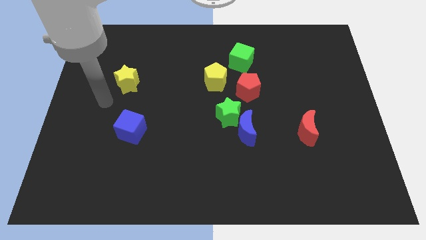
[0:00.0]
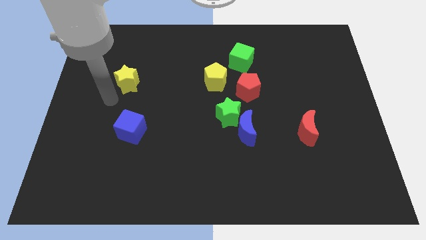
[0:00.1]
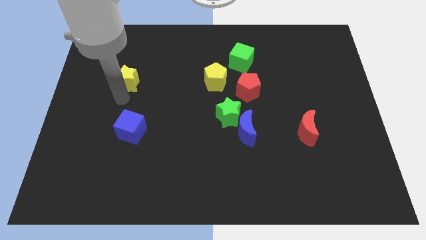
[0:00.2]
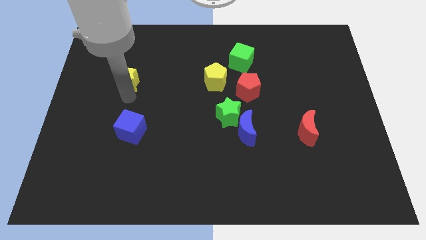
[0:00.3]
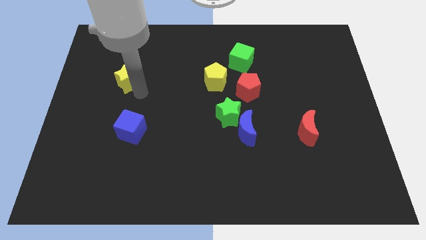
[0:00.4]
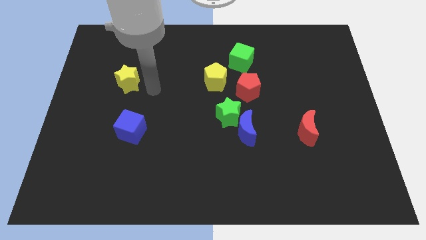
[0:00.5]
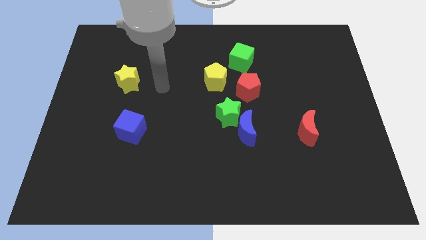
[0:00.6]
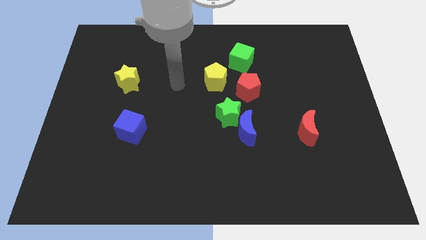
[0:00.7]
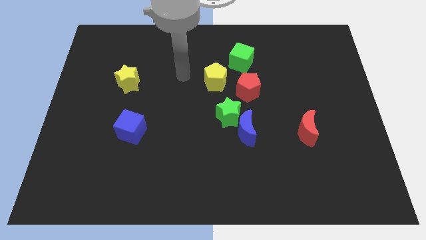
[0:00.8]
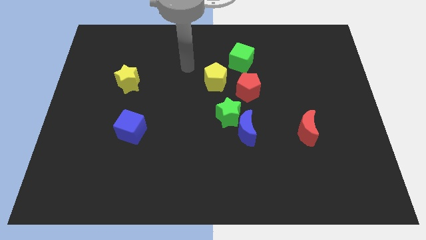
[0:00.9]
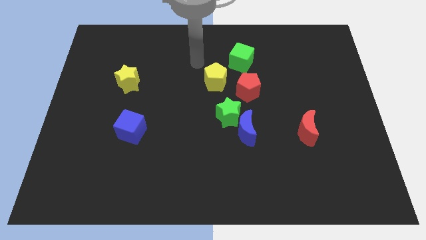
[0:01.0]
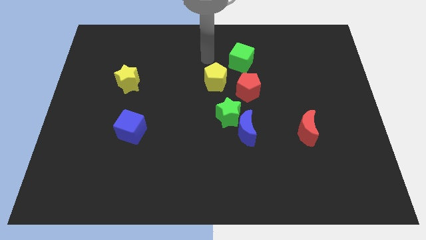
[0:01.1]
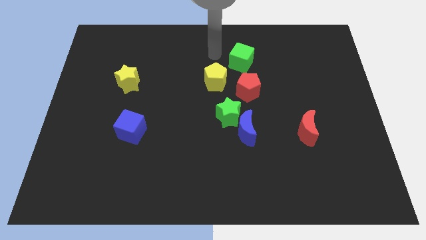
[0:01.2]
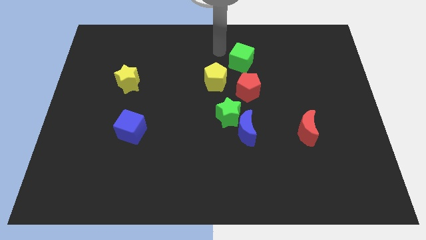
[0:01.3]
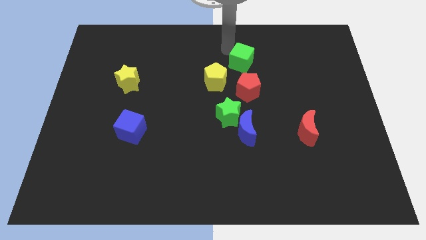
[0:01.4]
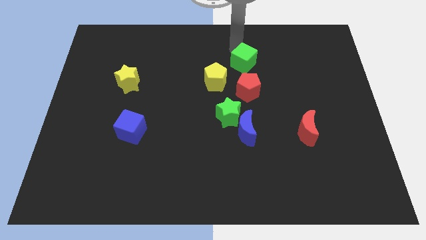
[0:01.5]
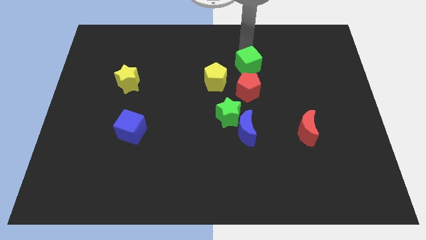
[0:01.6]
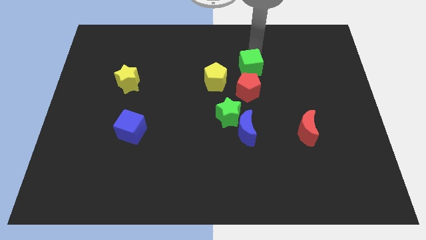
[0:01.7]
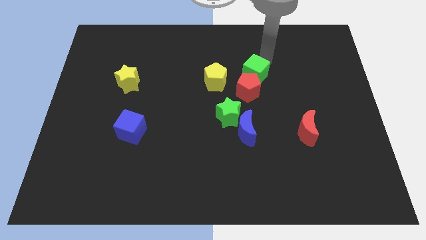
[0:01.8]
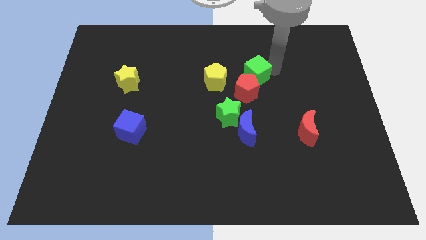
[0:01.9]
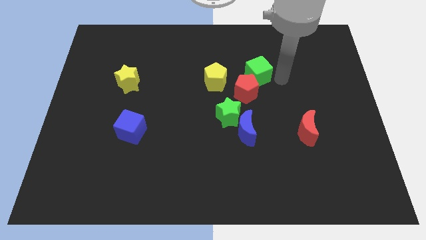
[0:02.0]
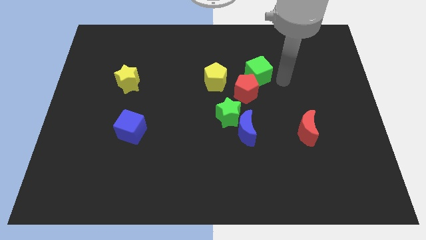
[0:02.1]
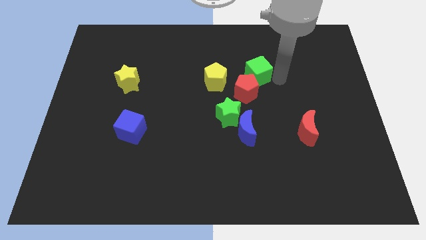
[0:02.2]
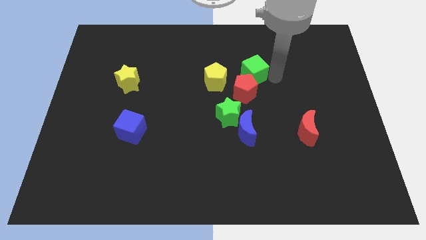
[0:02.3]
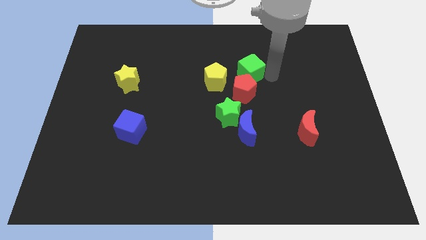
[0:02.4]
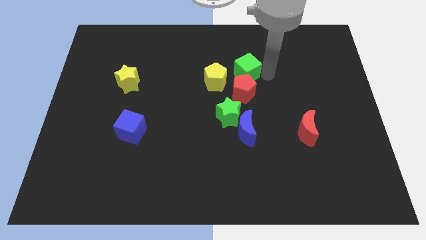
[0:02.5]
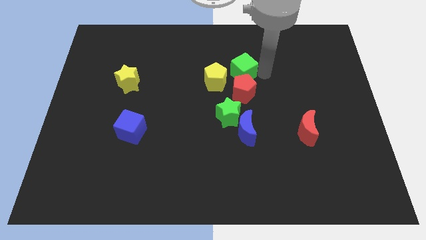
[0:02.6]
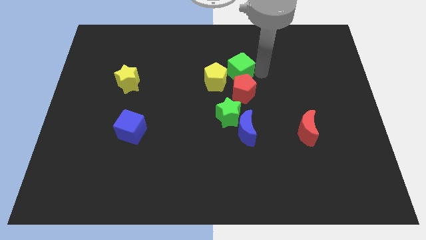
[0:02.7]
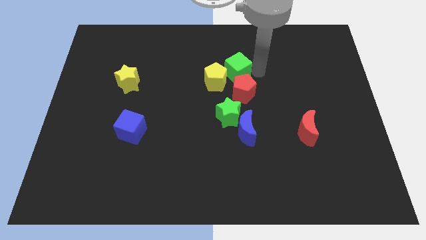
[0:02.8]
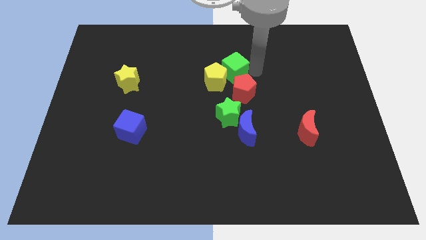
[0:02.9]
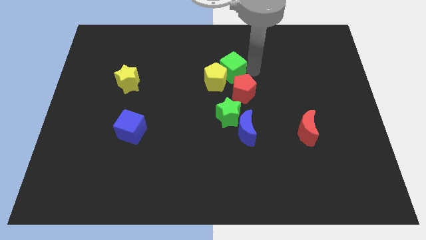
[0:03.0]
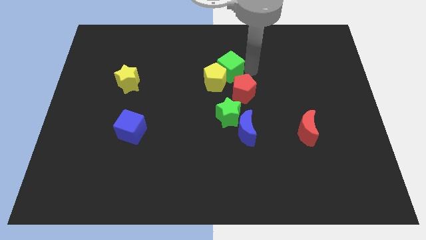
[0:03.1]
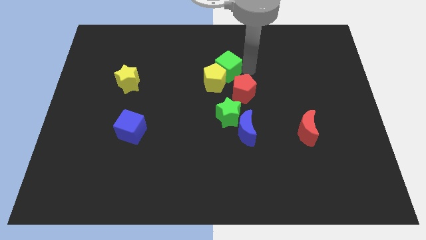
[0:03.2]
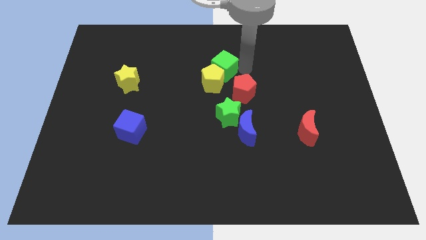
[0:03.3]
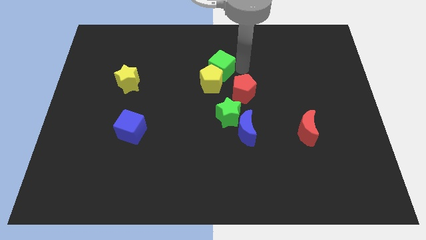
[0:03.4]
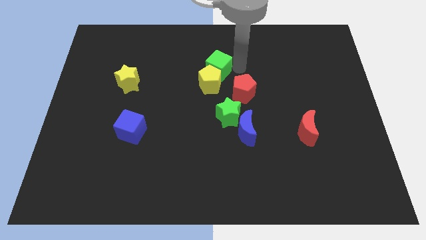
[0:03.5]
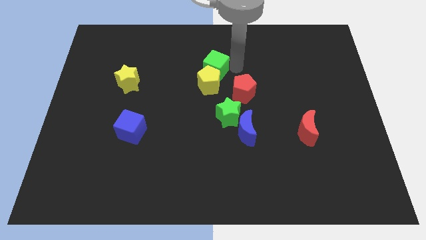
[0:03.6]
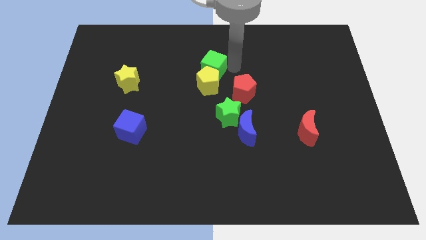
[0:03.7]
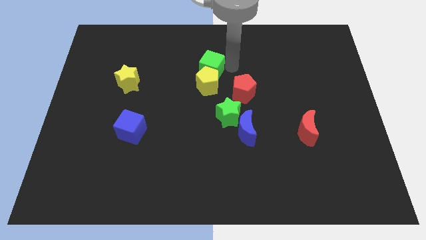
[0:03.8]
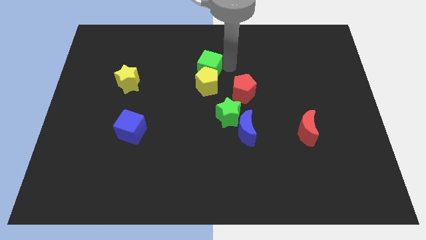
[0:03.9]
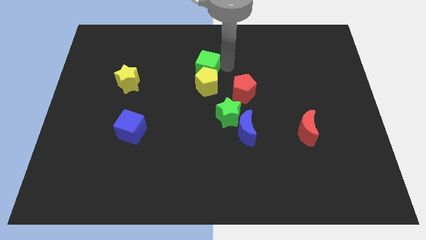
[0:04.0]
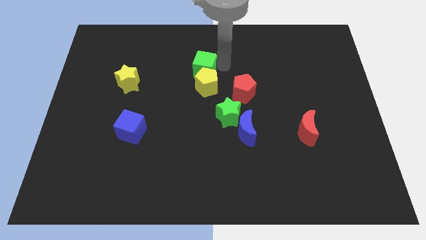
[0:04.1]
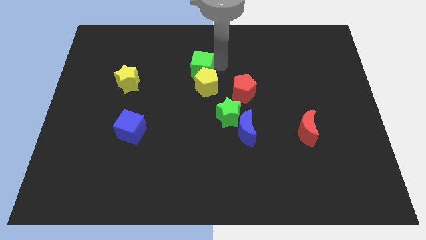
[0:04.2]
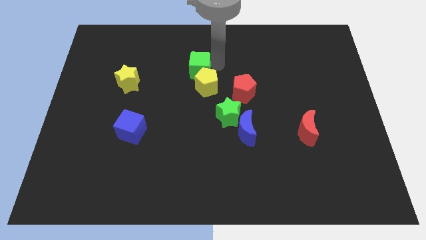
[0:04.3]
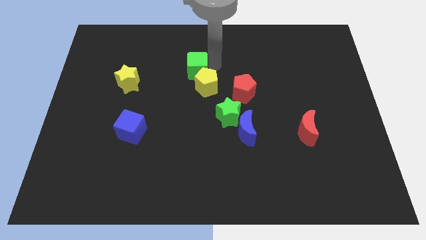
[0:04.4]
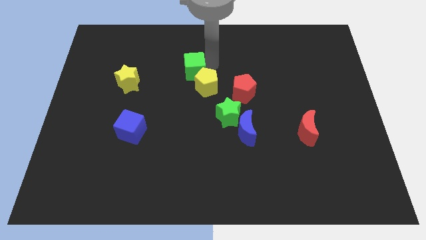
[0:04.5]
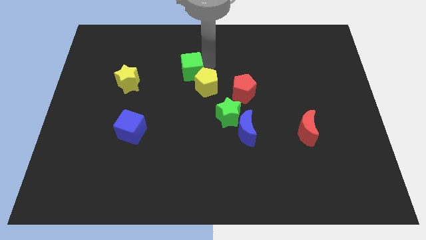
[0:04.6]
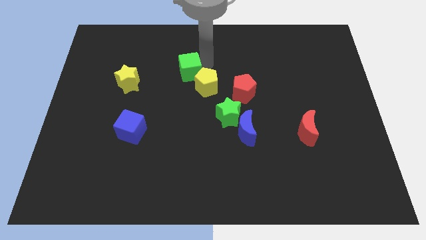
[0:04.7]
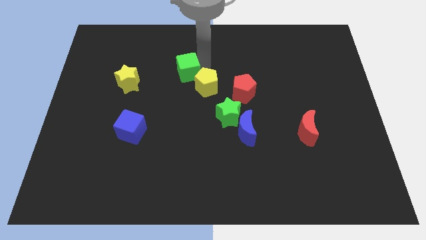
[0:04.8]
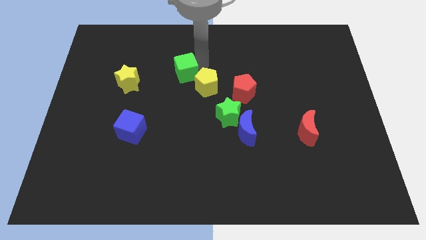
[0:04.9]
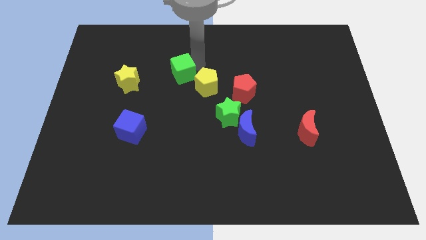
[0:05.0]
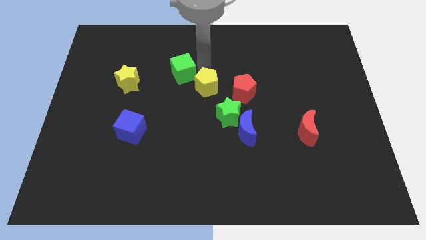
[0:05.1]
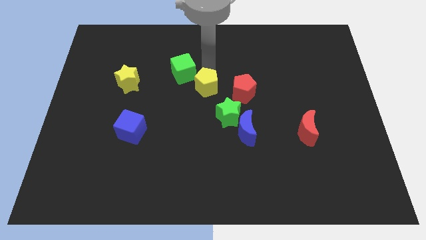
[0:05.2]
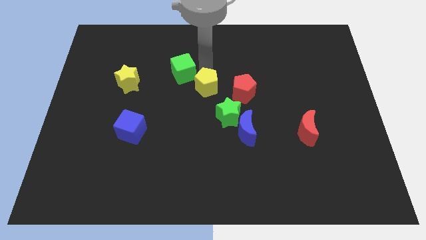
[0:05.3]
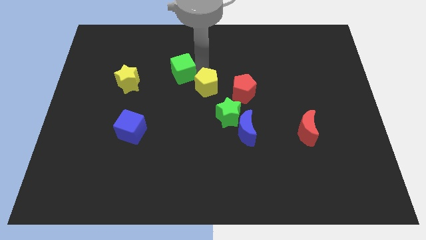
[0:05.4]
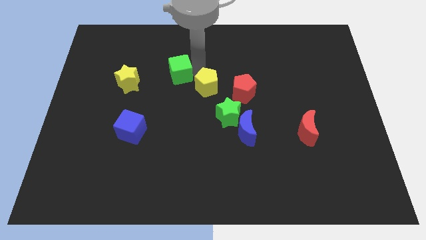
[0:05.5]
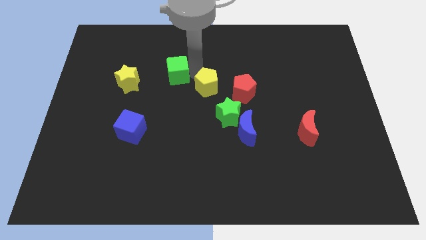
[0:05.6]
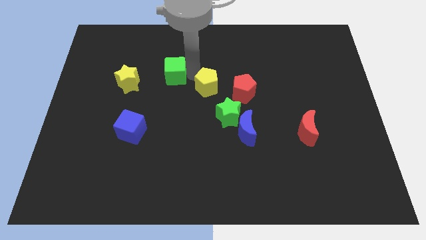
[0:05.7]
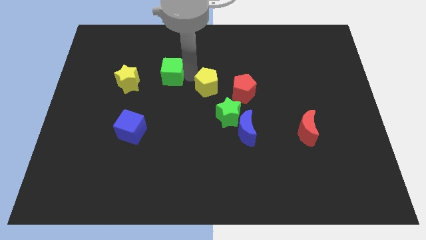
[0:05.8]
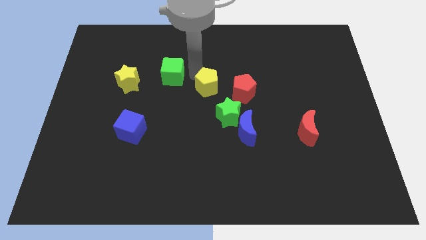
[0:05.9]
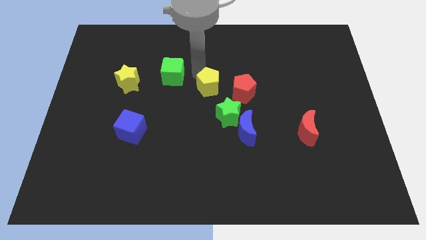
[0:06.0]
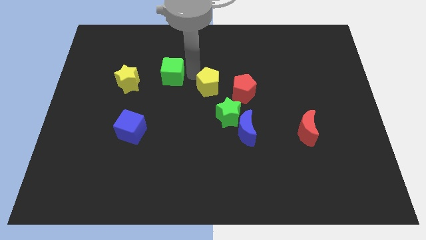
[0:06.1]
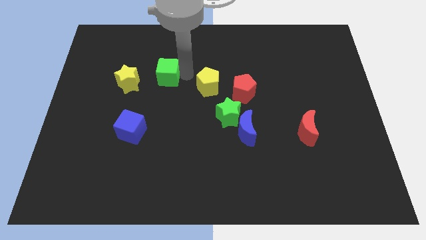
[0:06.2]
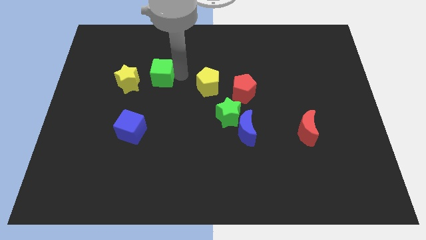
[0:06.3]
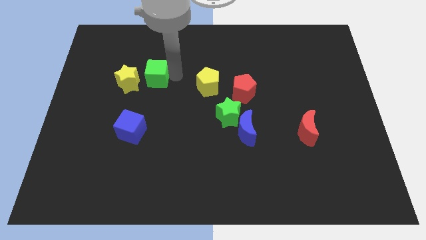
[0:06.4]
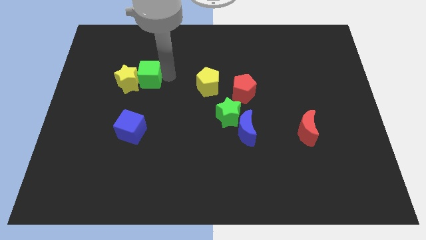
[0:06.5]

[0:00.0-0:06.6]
push the green cube to the yellow star

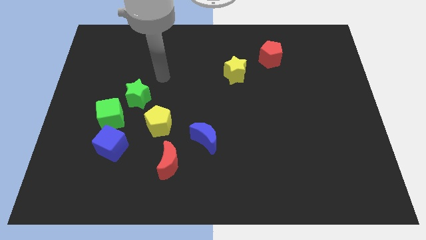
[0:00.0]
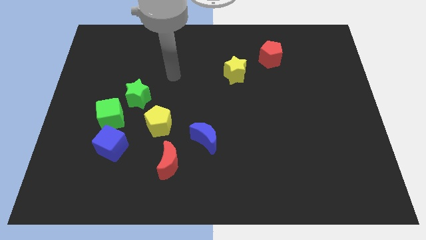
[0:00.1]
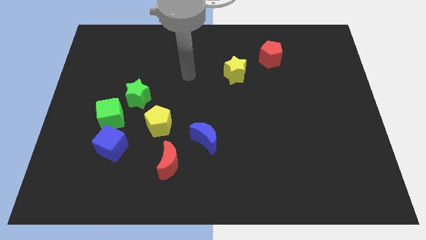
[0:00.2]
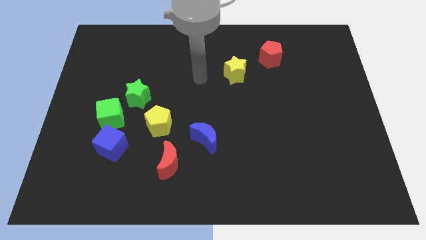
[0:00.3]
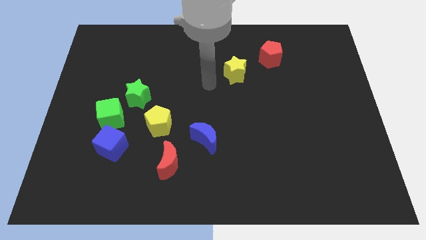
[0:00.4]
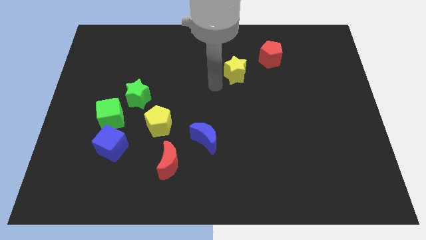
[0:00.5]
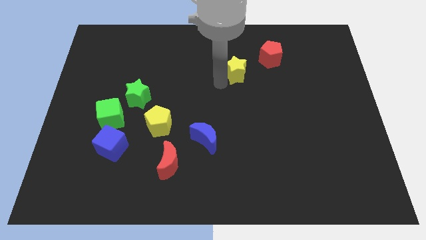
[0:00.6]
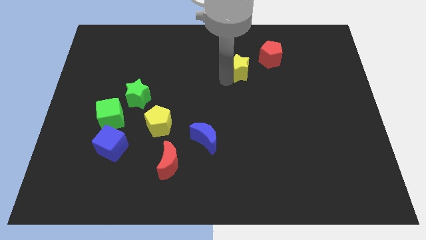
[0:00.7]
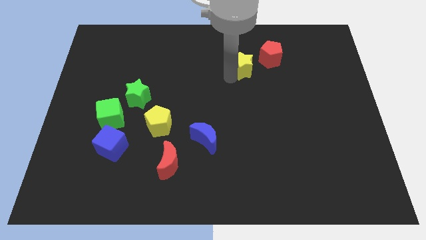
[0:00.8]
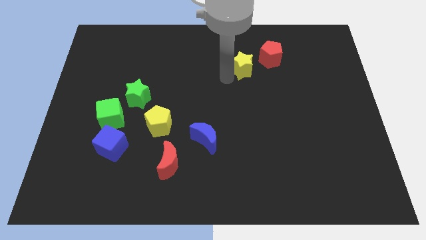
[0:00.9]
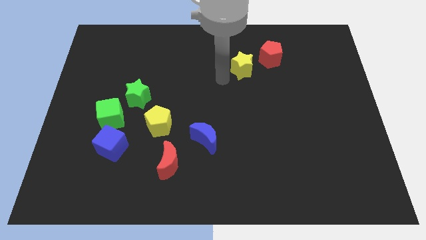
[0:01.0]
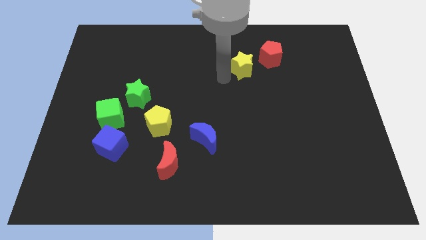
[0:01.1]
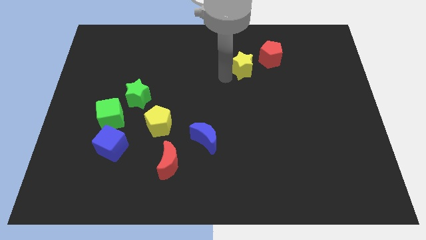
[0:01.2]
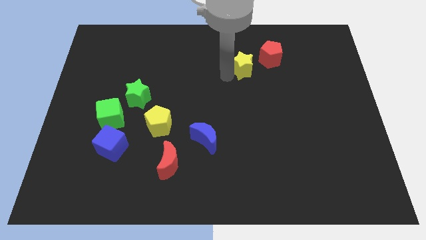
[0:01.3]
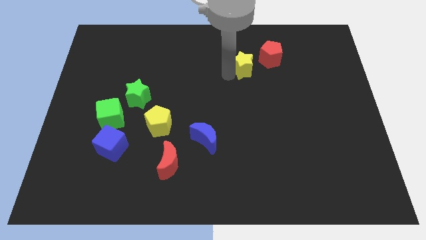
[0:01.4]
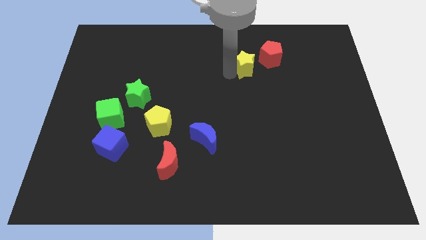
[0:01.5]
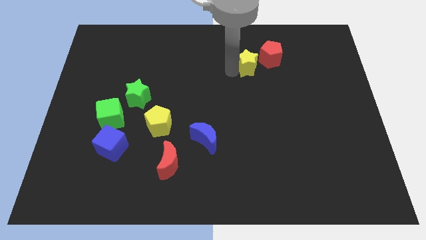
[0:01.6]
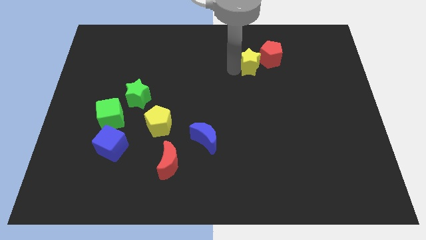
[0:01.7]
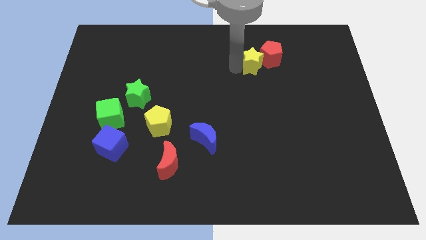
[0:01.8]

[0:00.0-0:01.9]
slide the yellow star next to the red pentagon
